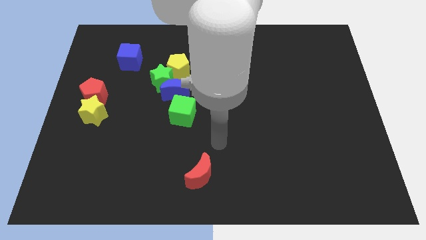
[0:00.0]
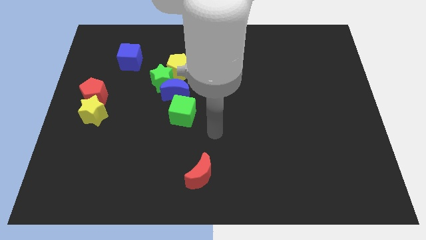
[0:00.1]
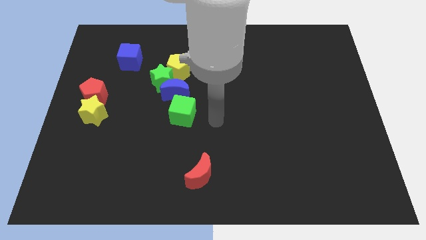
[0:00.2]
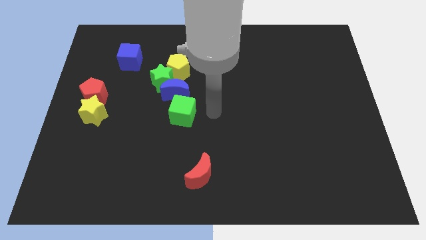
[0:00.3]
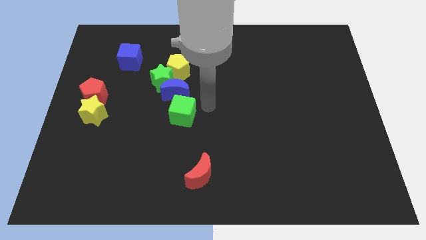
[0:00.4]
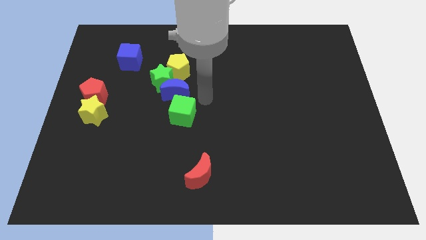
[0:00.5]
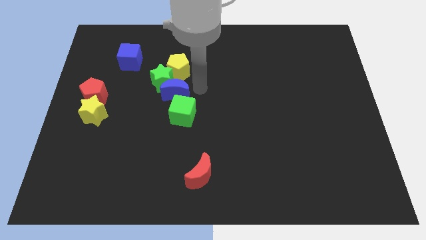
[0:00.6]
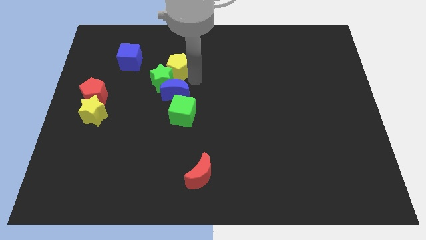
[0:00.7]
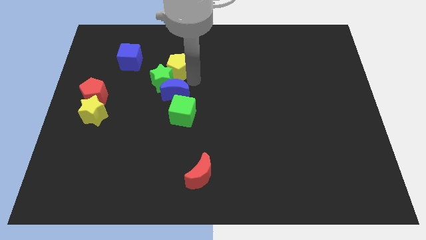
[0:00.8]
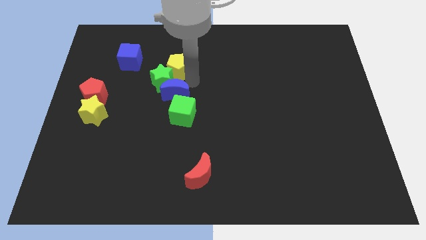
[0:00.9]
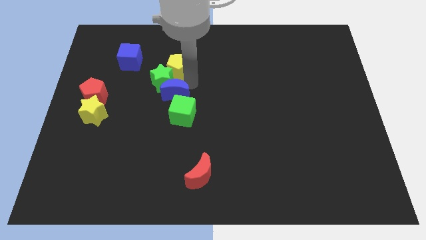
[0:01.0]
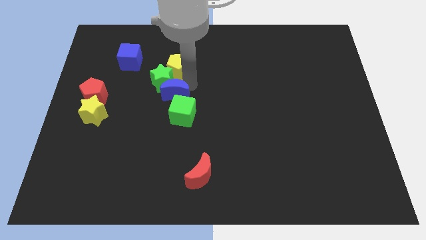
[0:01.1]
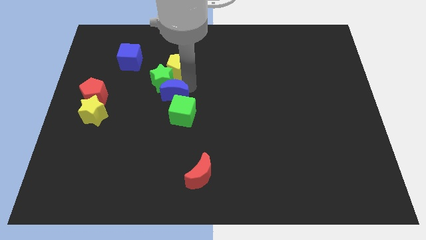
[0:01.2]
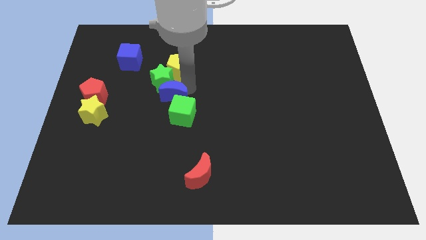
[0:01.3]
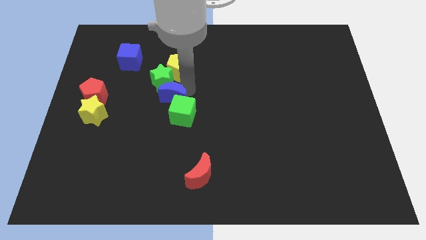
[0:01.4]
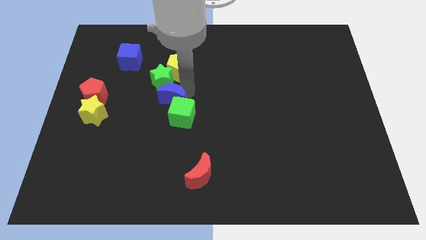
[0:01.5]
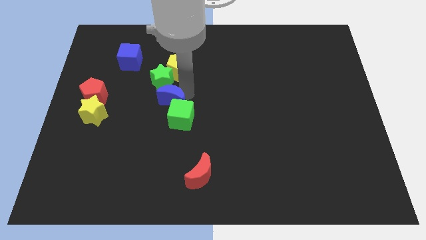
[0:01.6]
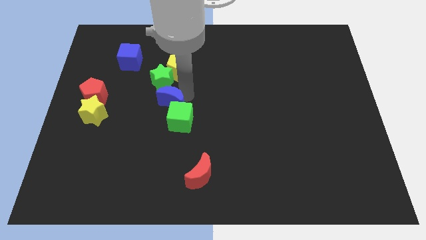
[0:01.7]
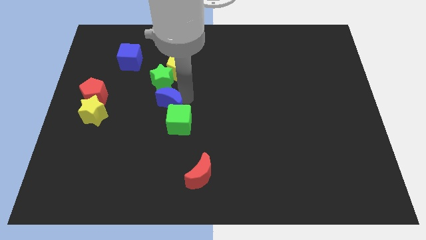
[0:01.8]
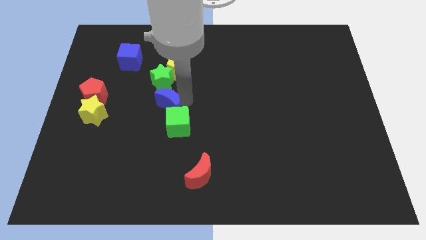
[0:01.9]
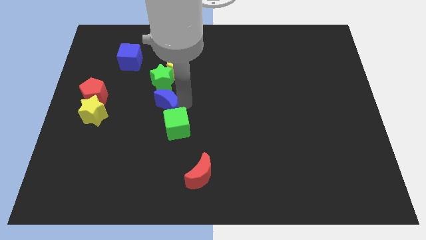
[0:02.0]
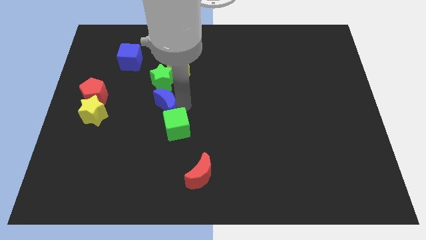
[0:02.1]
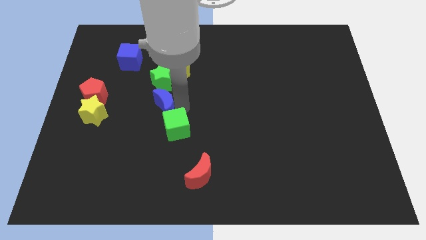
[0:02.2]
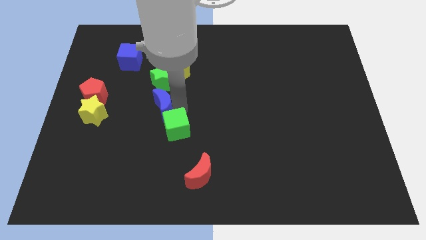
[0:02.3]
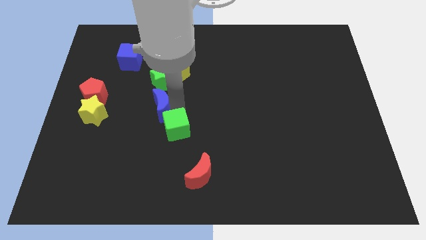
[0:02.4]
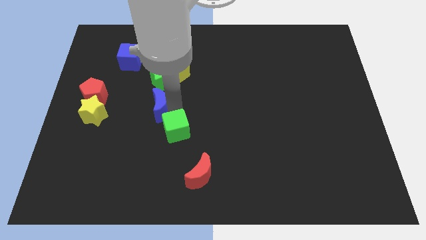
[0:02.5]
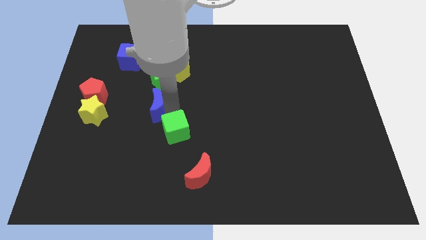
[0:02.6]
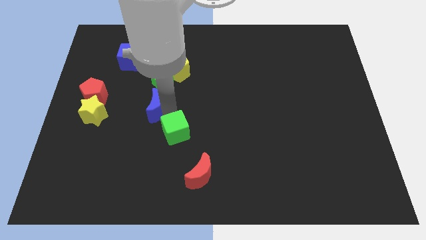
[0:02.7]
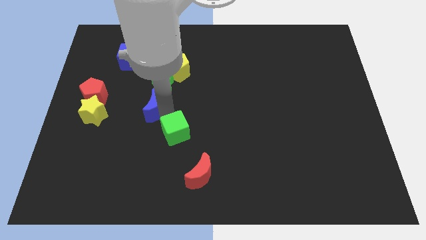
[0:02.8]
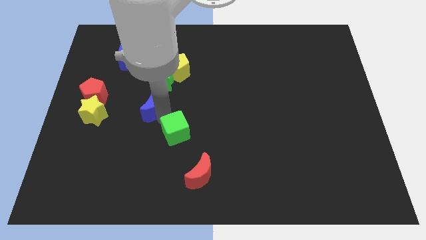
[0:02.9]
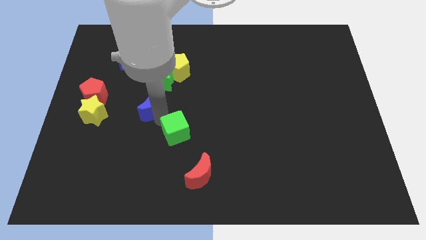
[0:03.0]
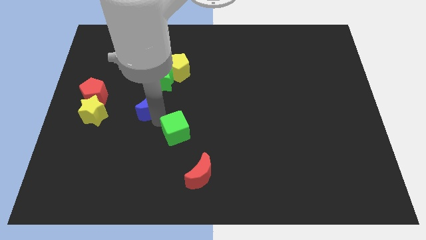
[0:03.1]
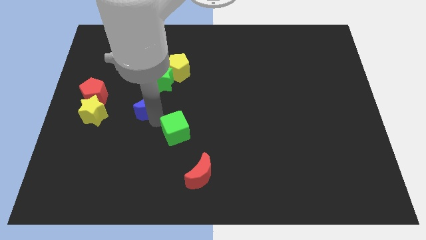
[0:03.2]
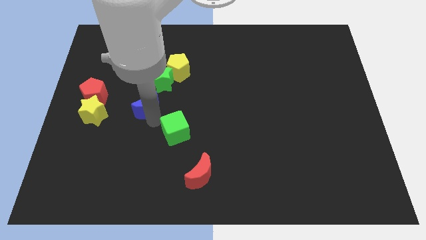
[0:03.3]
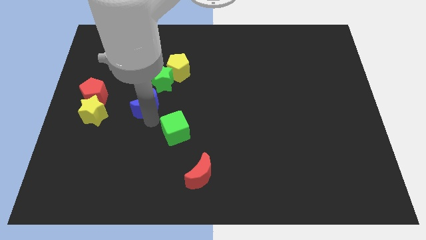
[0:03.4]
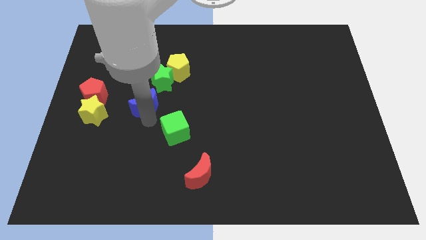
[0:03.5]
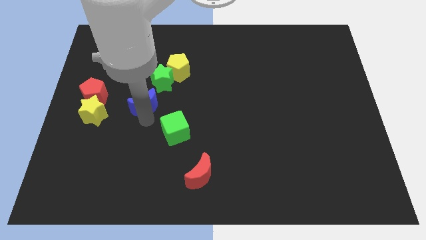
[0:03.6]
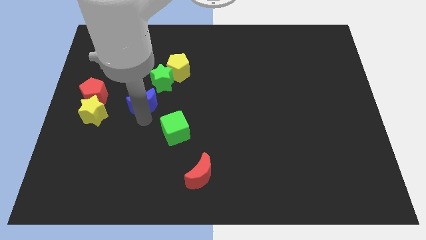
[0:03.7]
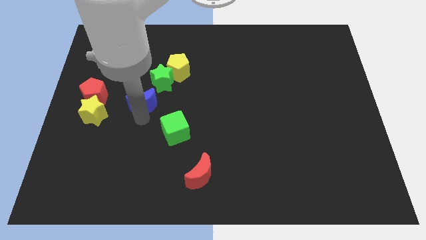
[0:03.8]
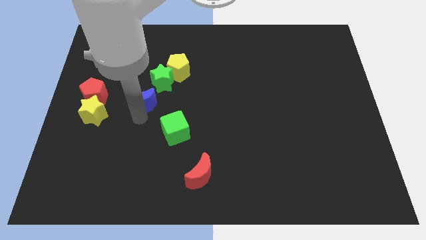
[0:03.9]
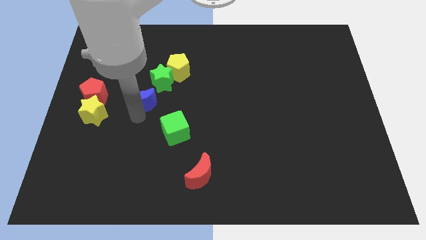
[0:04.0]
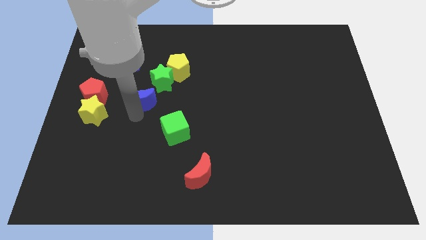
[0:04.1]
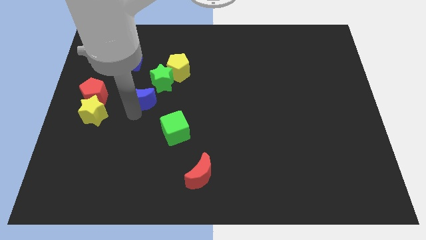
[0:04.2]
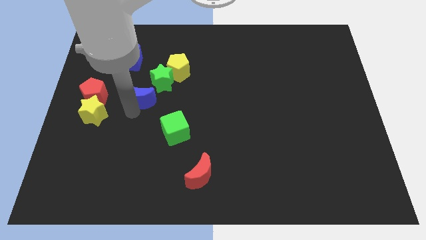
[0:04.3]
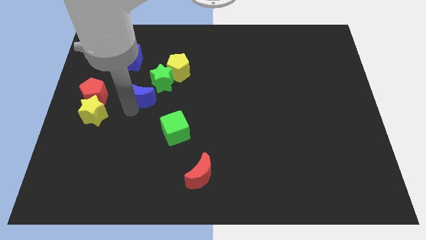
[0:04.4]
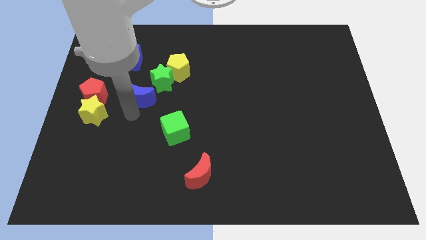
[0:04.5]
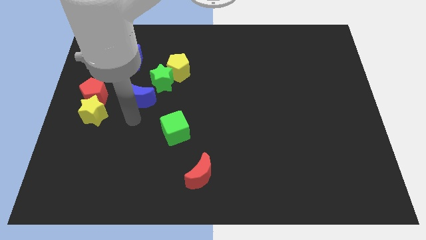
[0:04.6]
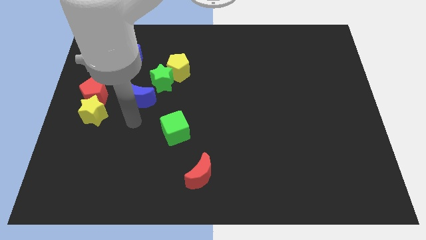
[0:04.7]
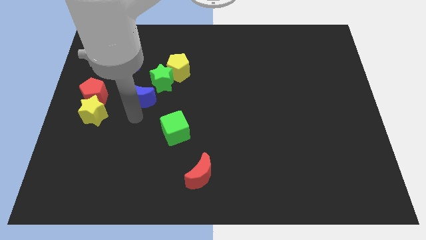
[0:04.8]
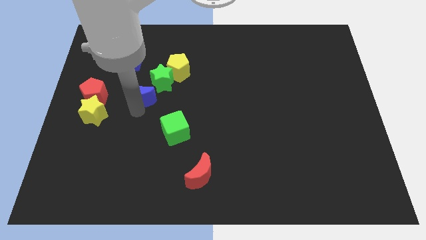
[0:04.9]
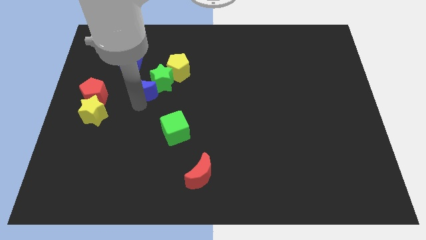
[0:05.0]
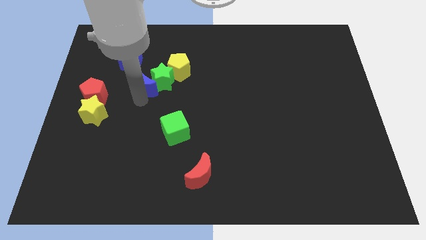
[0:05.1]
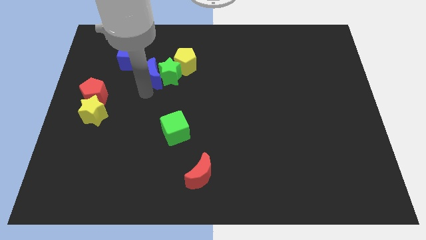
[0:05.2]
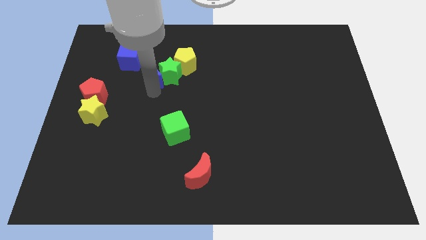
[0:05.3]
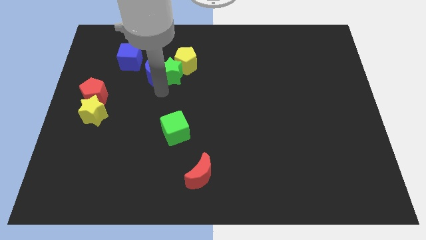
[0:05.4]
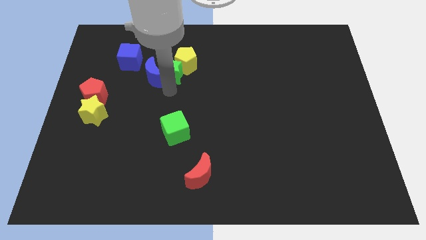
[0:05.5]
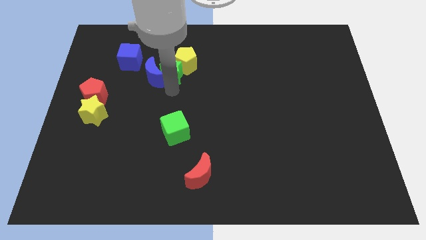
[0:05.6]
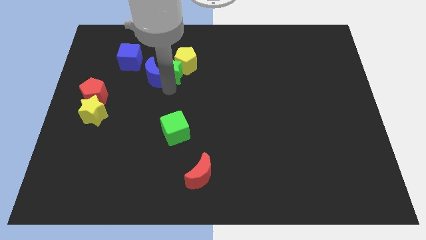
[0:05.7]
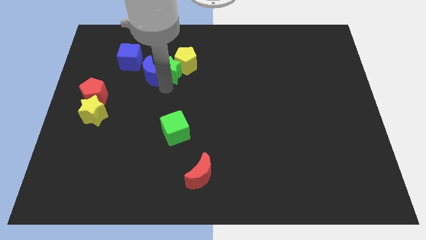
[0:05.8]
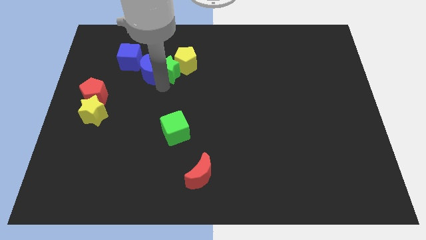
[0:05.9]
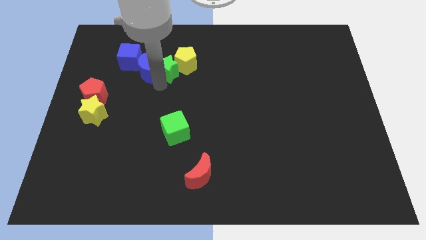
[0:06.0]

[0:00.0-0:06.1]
slide the blue moon to the blue cube
